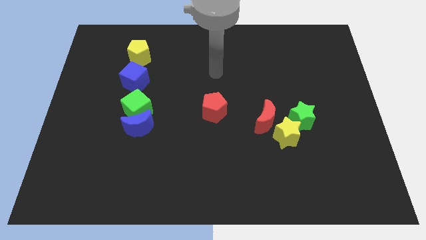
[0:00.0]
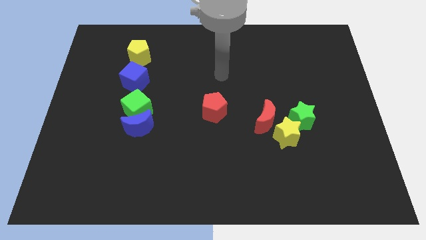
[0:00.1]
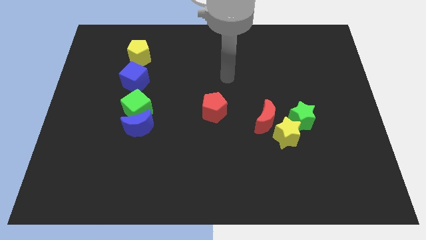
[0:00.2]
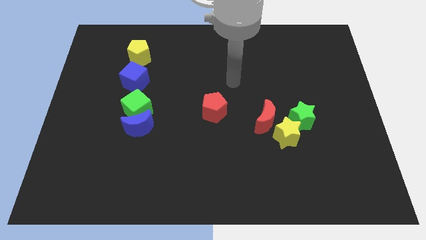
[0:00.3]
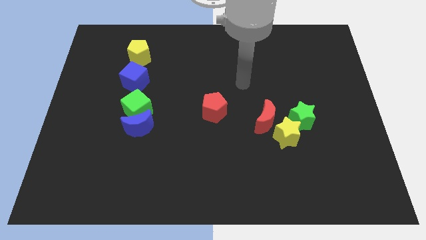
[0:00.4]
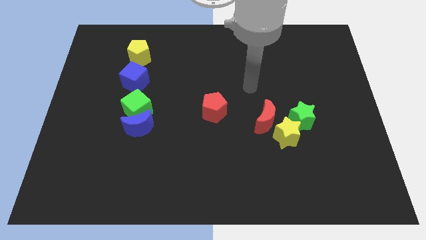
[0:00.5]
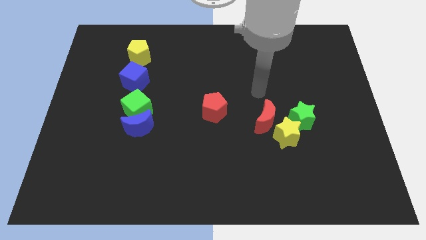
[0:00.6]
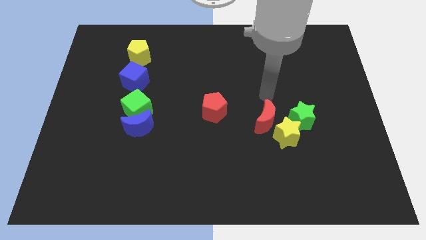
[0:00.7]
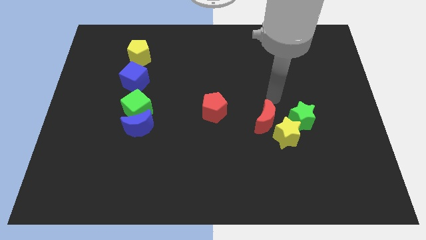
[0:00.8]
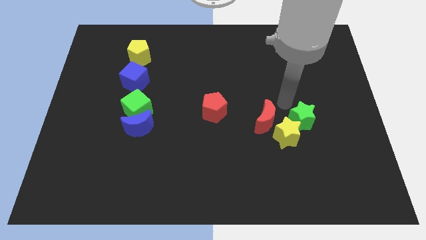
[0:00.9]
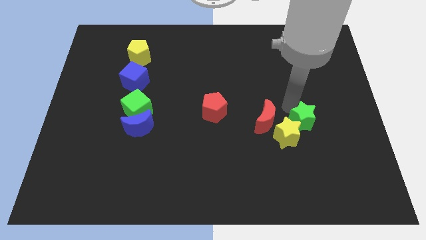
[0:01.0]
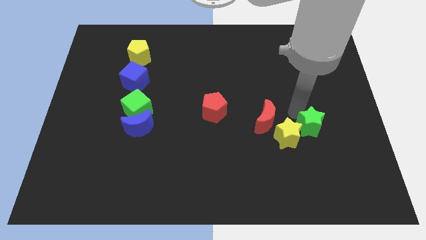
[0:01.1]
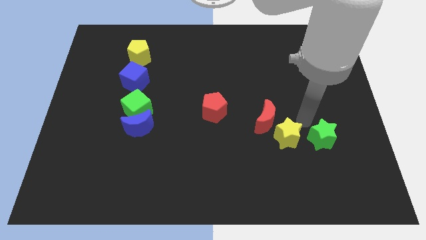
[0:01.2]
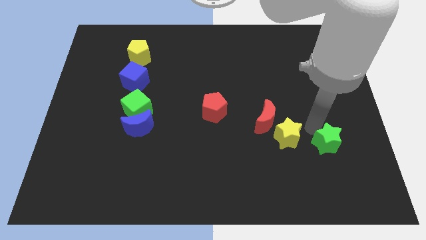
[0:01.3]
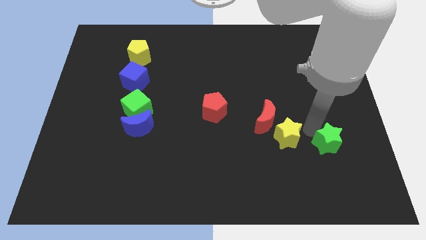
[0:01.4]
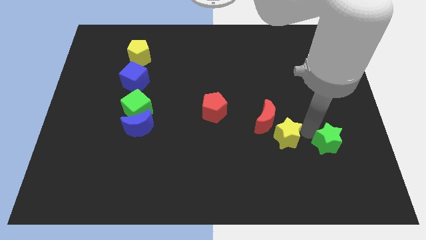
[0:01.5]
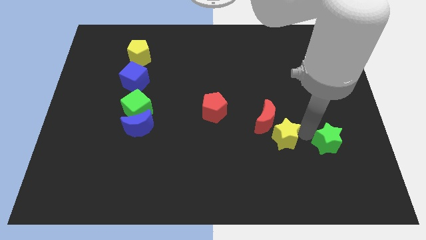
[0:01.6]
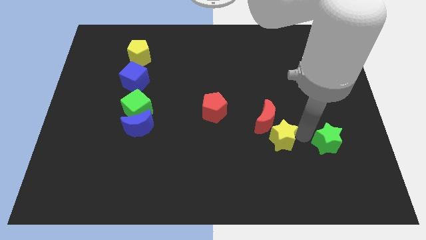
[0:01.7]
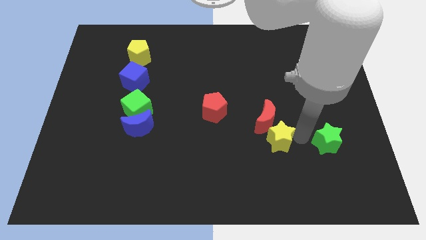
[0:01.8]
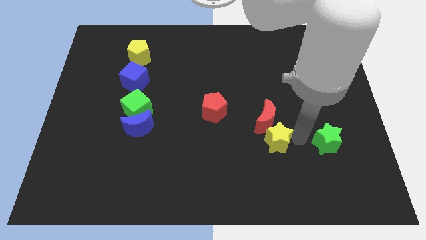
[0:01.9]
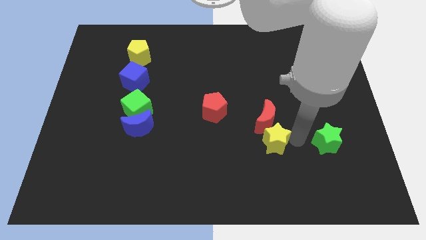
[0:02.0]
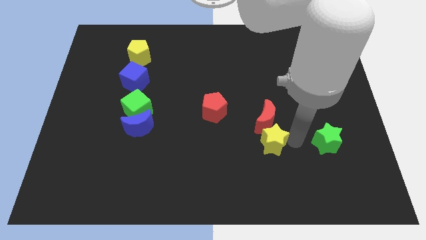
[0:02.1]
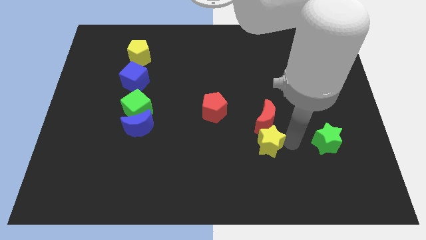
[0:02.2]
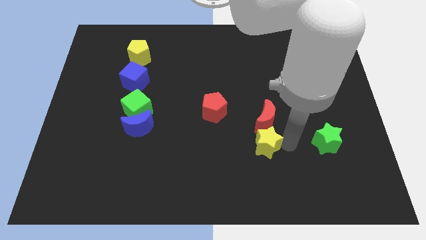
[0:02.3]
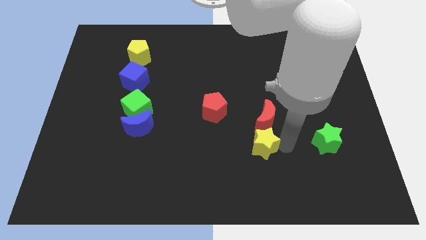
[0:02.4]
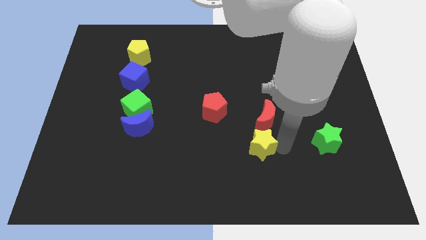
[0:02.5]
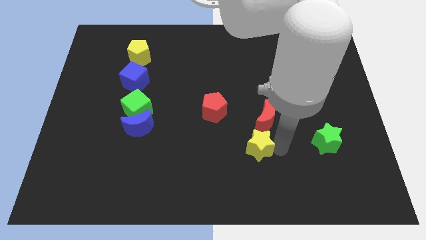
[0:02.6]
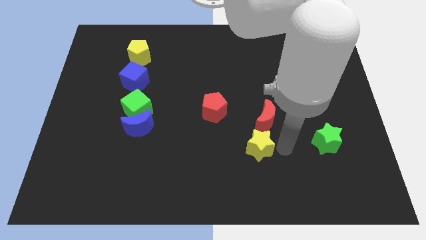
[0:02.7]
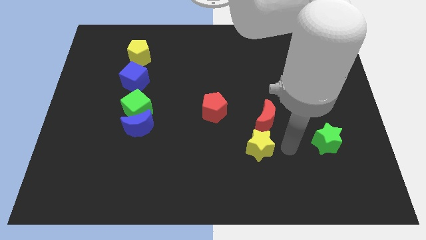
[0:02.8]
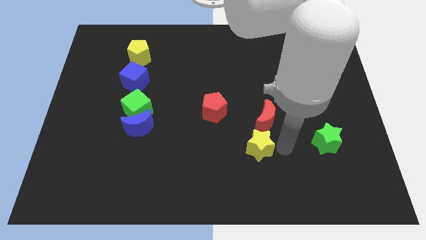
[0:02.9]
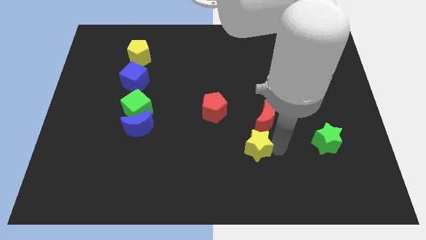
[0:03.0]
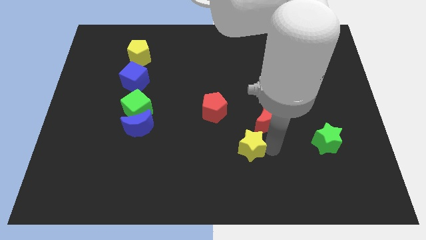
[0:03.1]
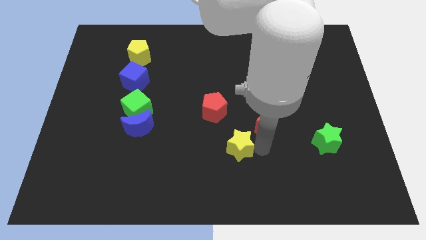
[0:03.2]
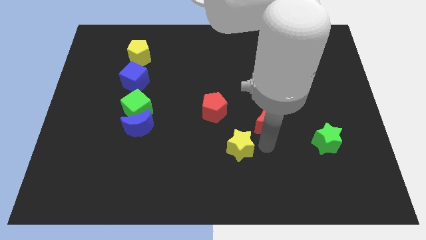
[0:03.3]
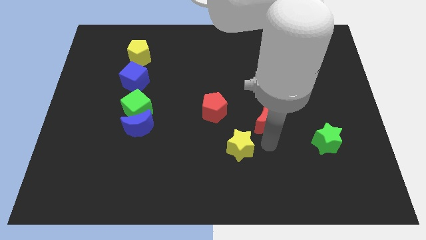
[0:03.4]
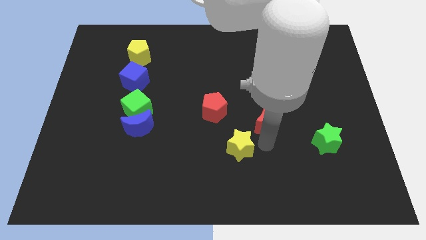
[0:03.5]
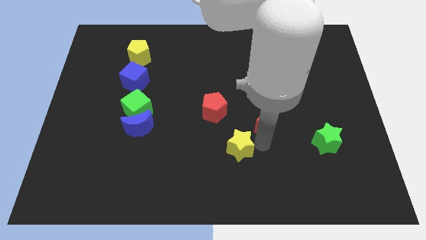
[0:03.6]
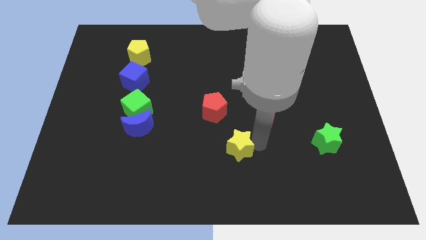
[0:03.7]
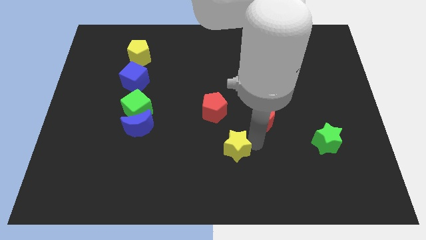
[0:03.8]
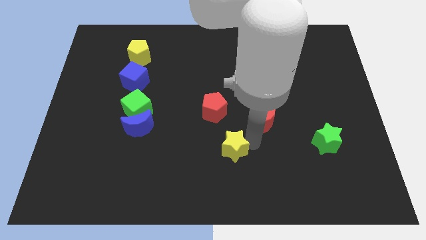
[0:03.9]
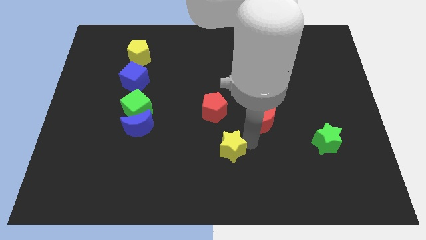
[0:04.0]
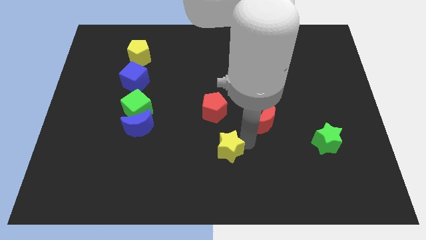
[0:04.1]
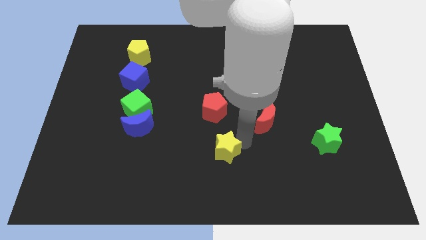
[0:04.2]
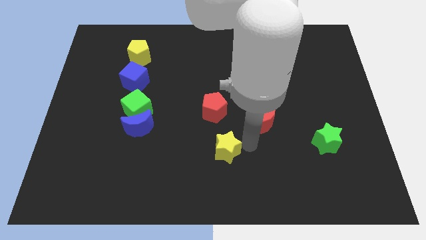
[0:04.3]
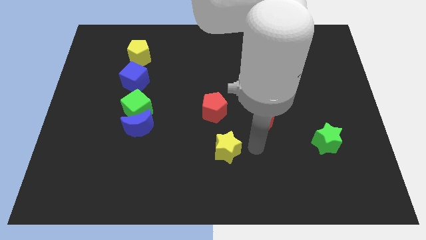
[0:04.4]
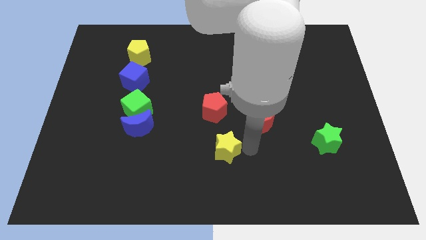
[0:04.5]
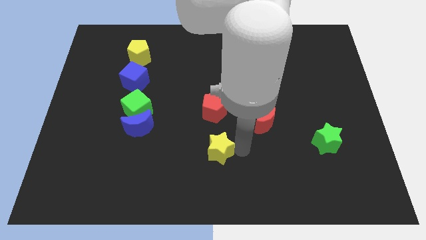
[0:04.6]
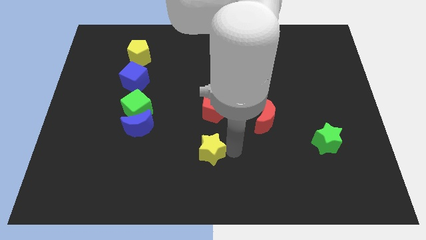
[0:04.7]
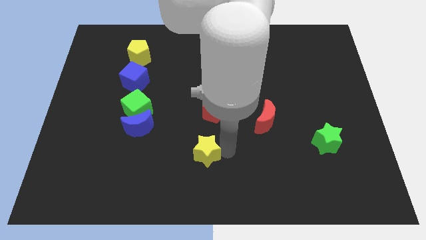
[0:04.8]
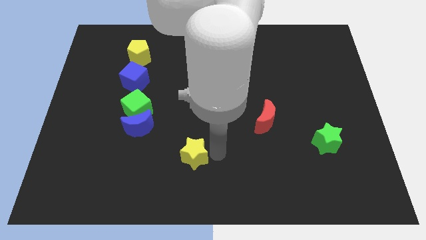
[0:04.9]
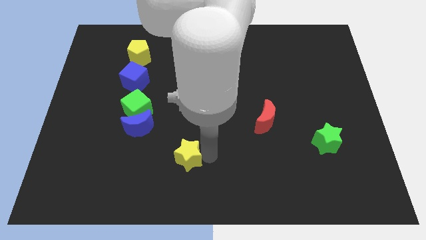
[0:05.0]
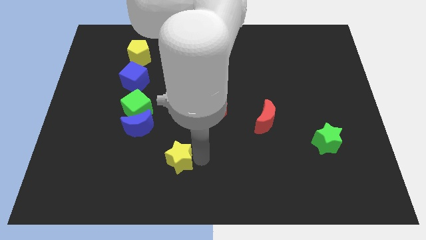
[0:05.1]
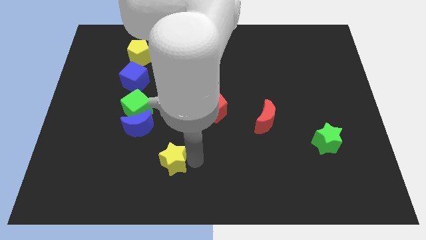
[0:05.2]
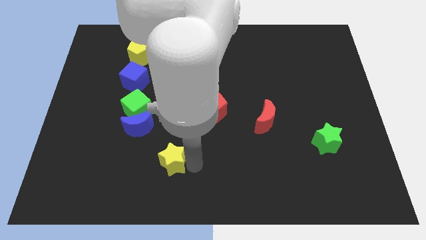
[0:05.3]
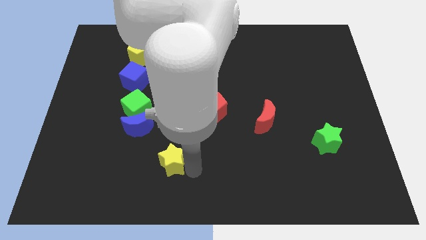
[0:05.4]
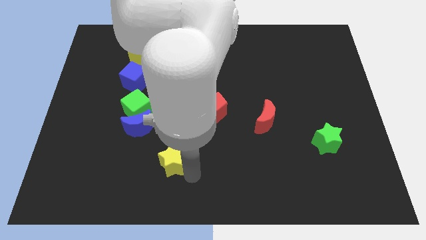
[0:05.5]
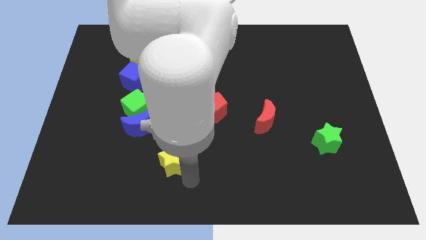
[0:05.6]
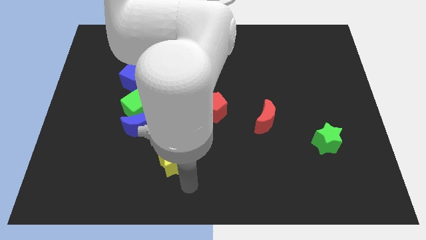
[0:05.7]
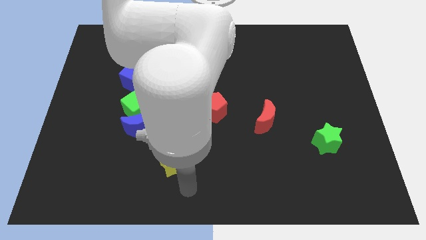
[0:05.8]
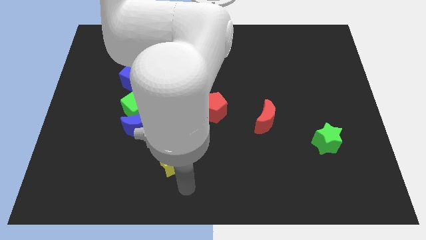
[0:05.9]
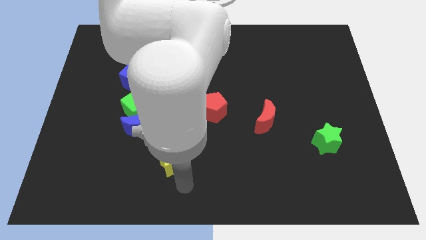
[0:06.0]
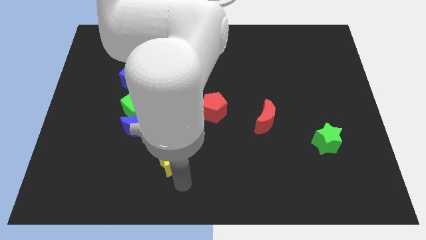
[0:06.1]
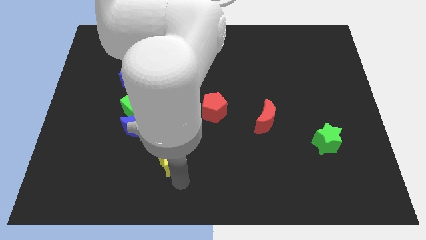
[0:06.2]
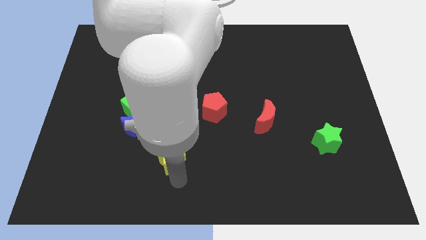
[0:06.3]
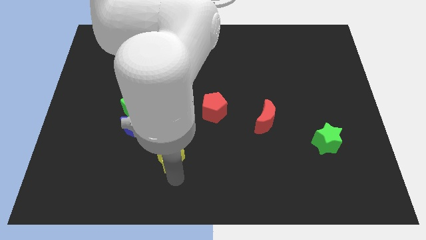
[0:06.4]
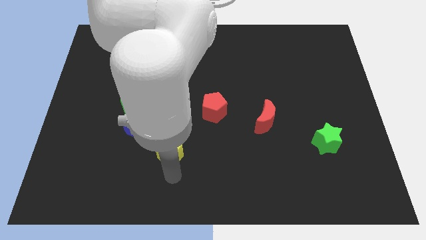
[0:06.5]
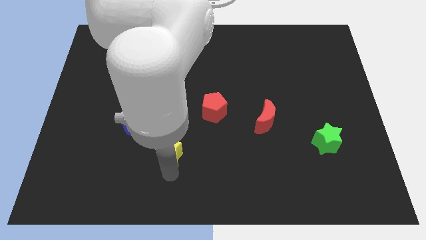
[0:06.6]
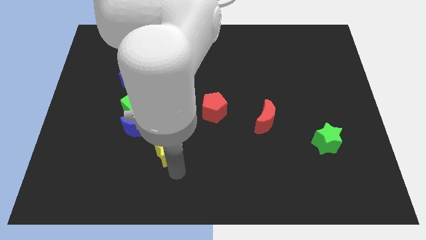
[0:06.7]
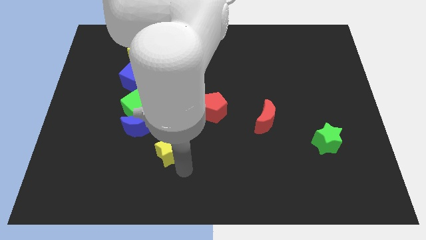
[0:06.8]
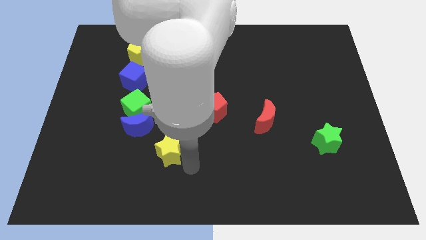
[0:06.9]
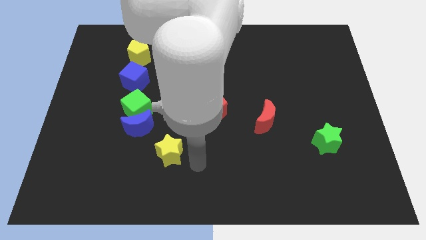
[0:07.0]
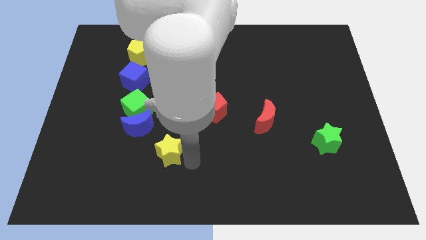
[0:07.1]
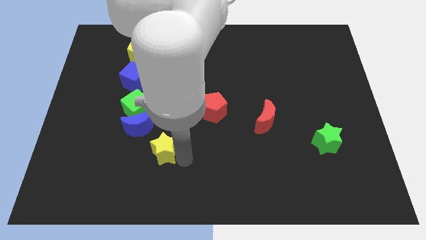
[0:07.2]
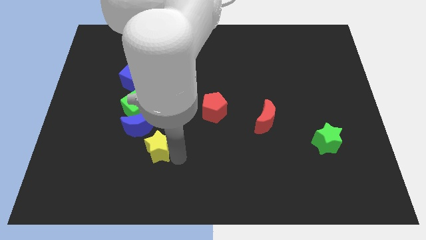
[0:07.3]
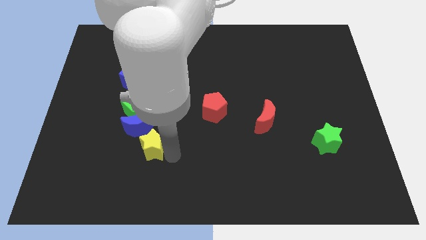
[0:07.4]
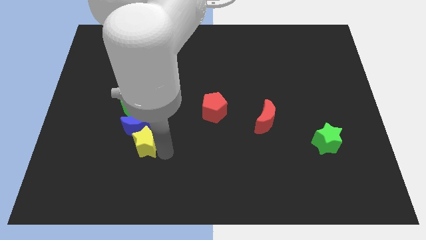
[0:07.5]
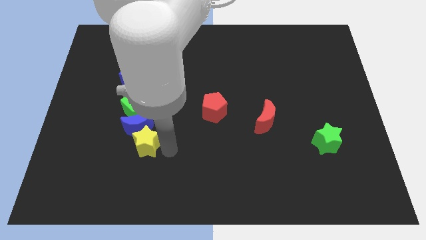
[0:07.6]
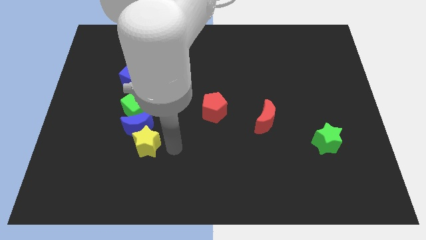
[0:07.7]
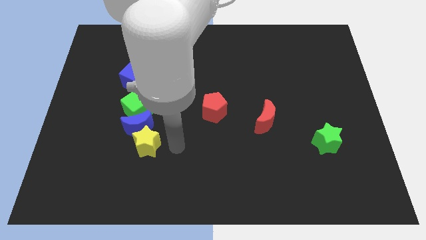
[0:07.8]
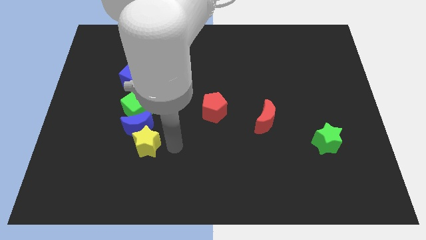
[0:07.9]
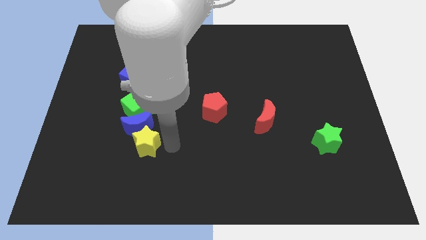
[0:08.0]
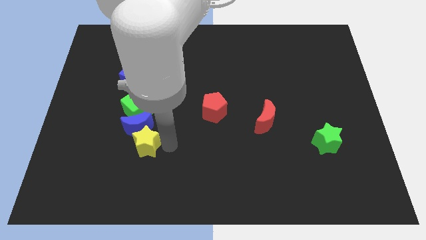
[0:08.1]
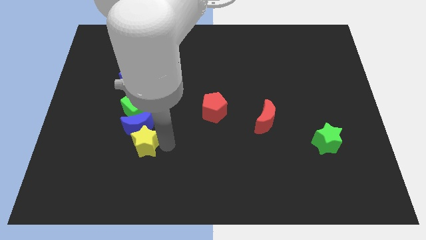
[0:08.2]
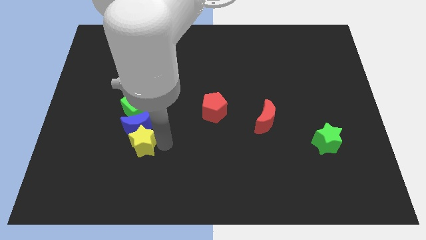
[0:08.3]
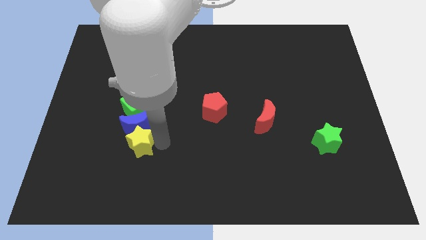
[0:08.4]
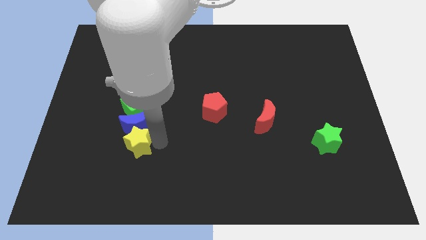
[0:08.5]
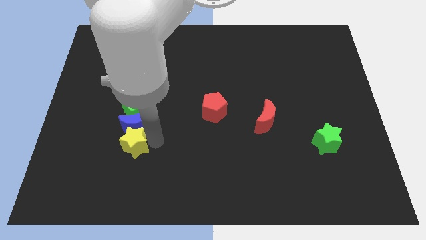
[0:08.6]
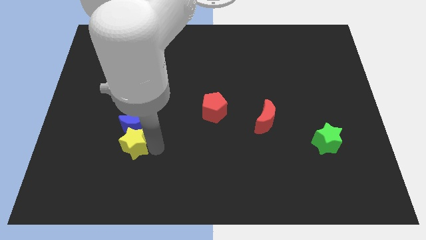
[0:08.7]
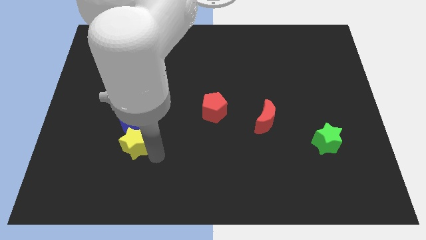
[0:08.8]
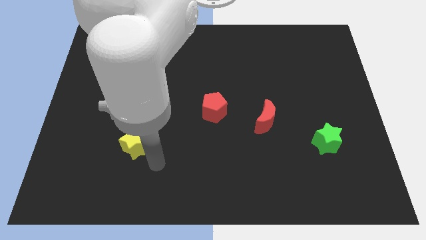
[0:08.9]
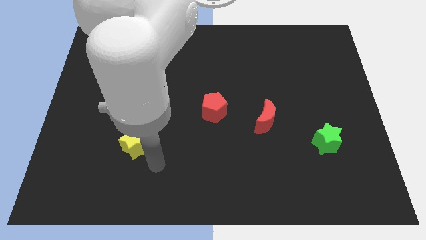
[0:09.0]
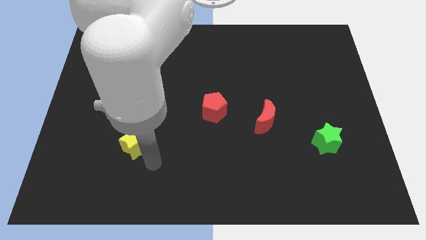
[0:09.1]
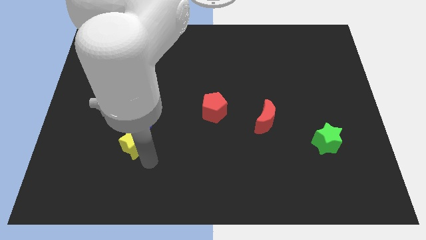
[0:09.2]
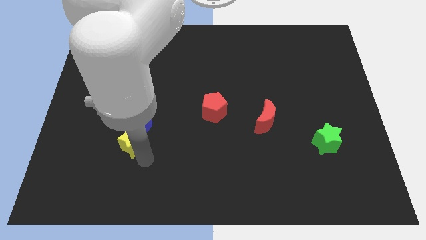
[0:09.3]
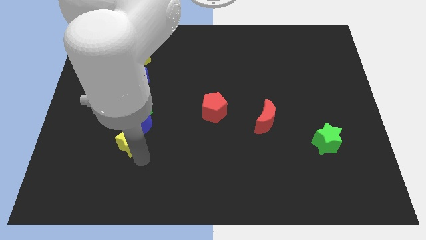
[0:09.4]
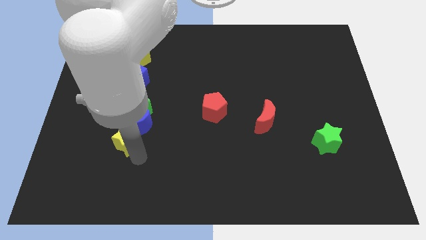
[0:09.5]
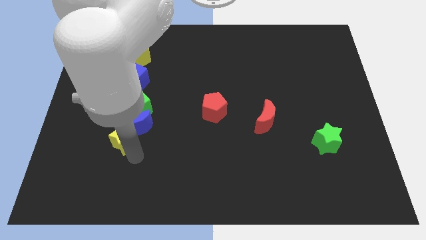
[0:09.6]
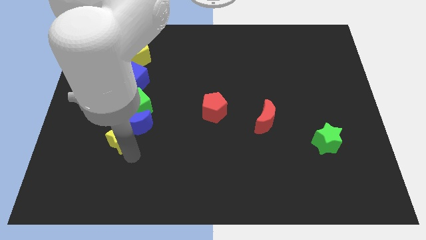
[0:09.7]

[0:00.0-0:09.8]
put the yellow star to the bottom left side of the green cube
